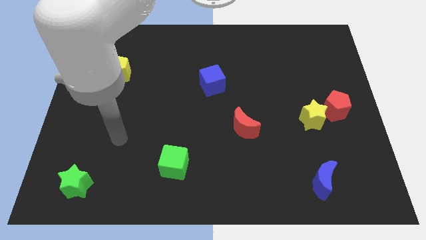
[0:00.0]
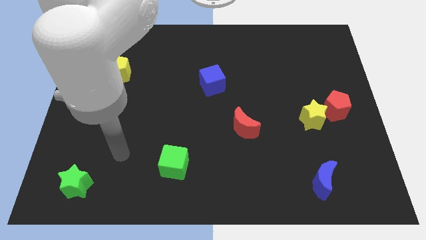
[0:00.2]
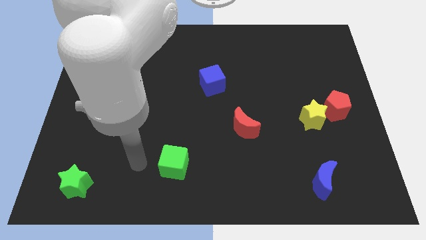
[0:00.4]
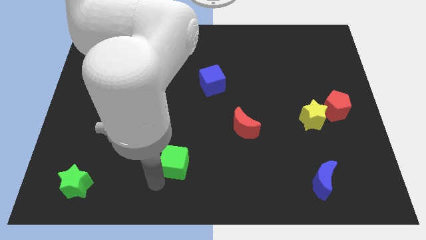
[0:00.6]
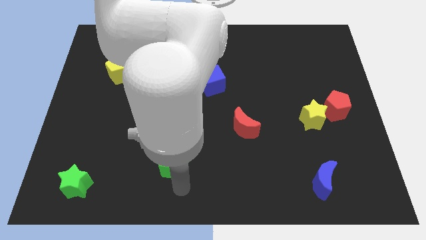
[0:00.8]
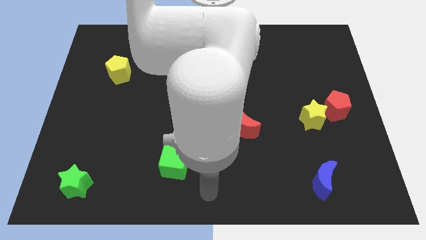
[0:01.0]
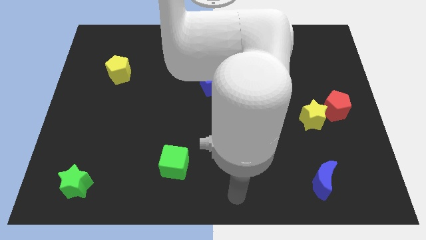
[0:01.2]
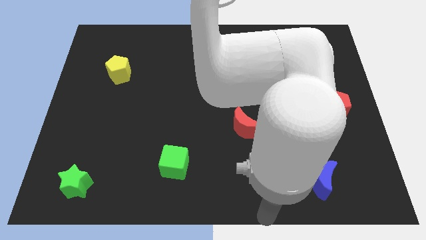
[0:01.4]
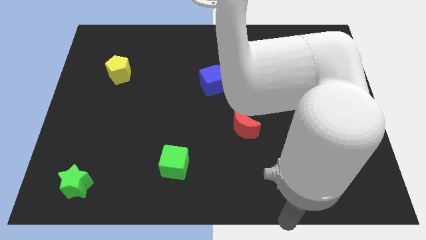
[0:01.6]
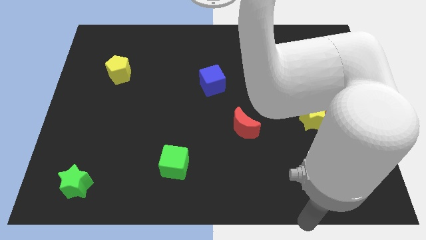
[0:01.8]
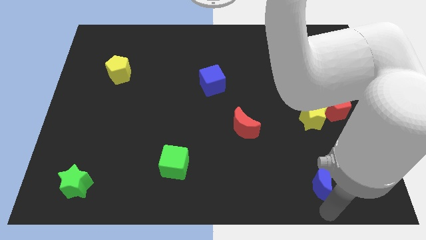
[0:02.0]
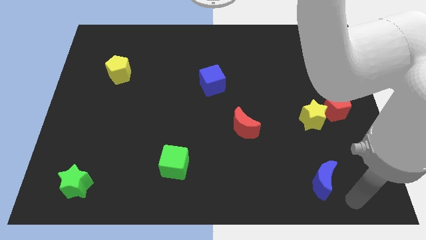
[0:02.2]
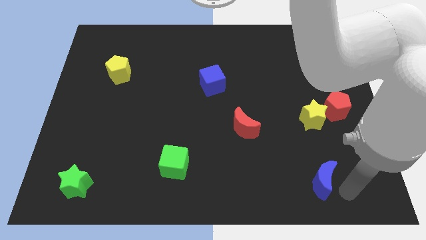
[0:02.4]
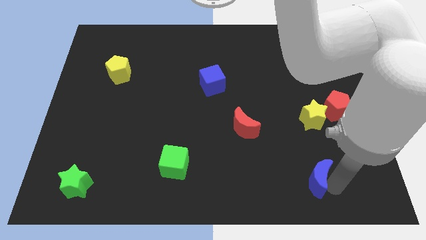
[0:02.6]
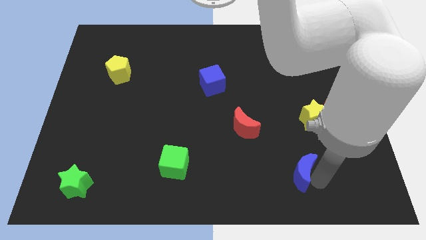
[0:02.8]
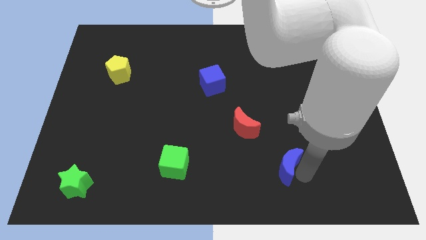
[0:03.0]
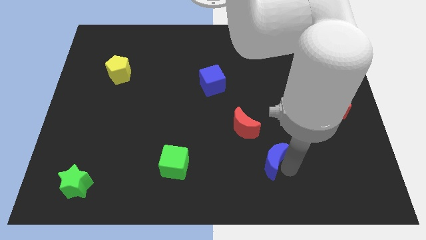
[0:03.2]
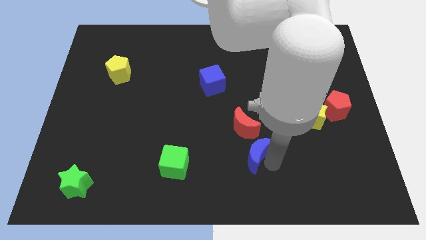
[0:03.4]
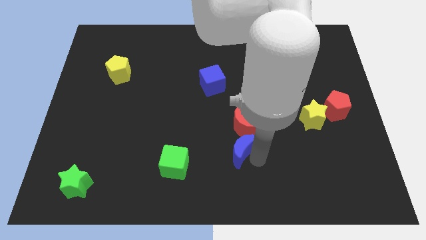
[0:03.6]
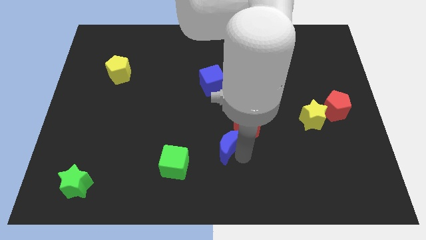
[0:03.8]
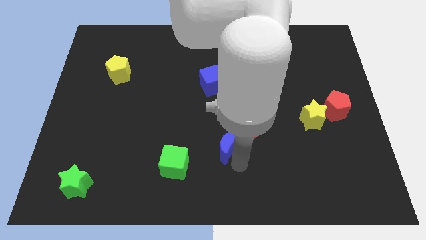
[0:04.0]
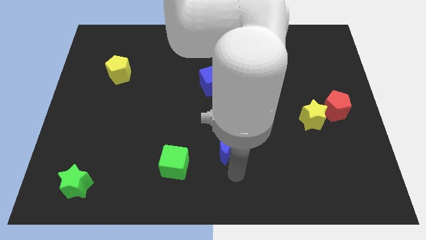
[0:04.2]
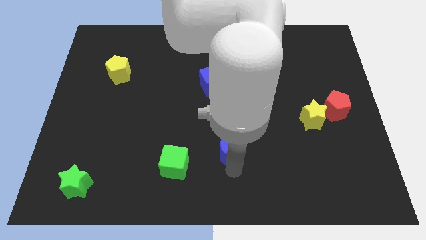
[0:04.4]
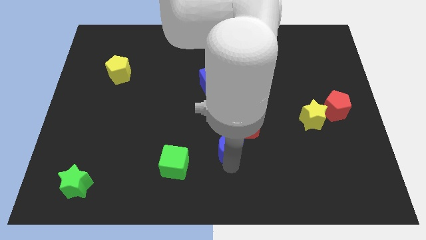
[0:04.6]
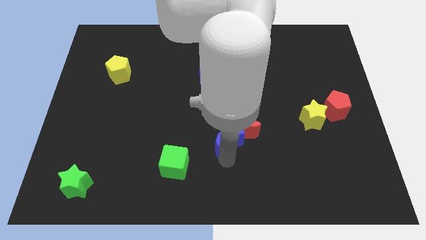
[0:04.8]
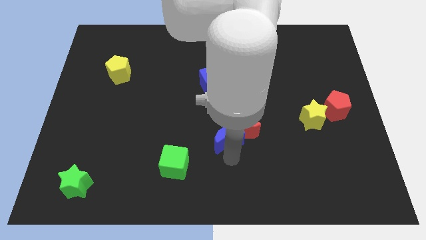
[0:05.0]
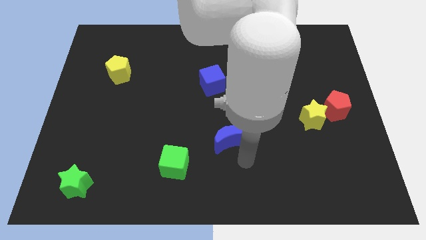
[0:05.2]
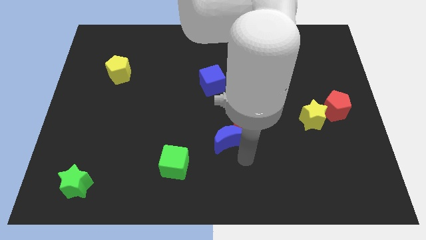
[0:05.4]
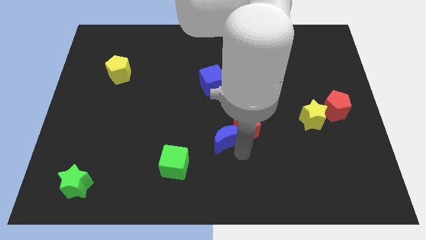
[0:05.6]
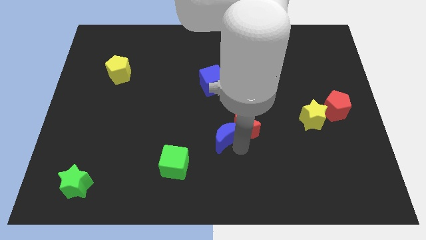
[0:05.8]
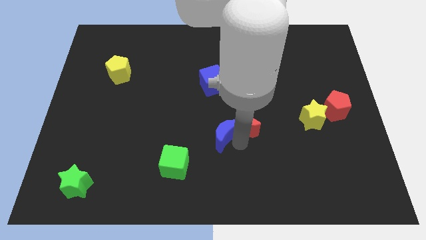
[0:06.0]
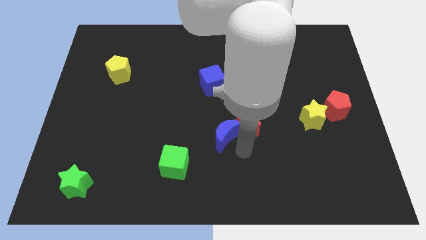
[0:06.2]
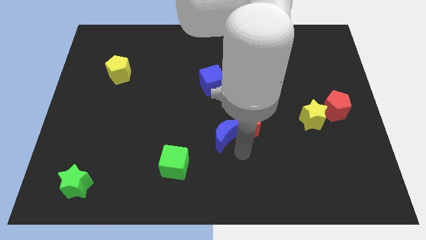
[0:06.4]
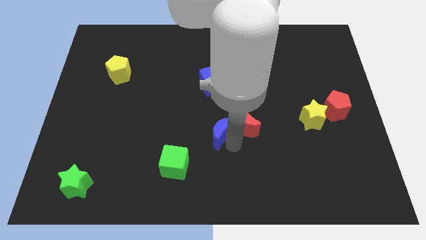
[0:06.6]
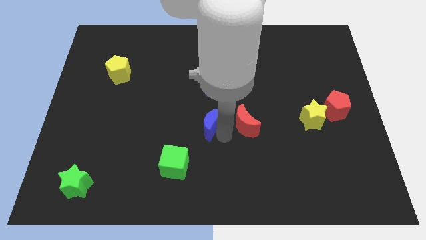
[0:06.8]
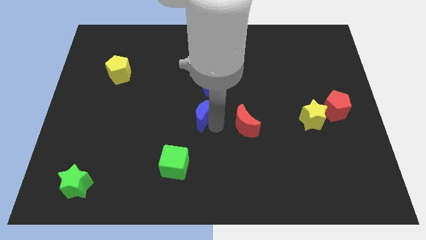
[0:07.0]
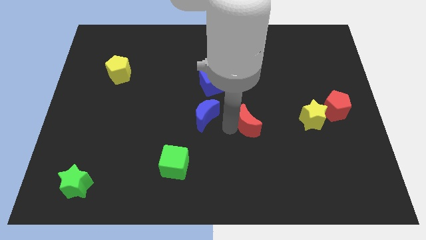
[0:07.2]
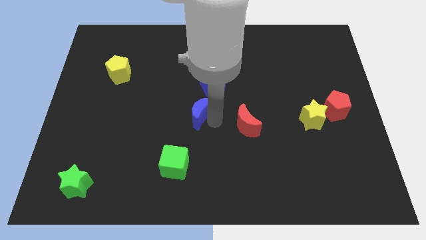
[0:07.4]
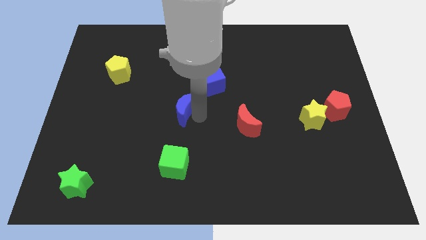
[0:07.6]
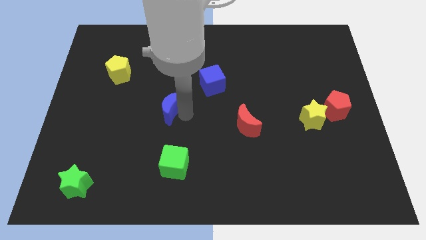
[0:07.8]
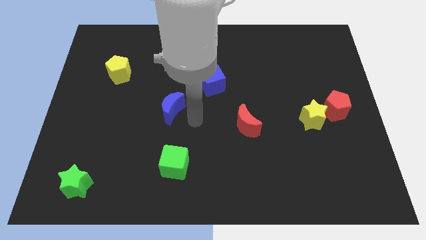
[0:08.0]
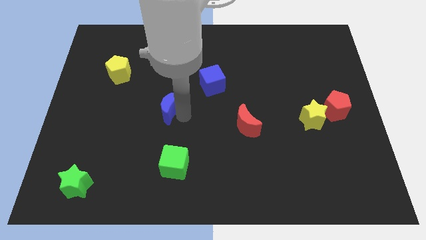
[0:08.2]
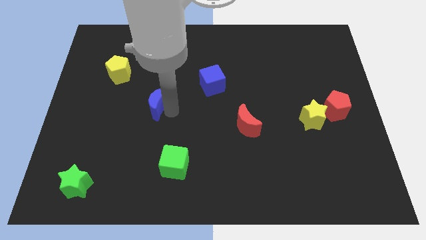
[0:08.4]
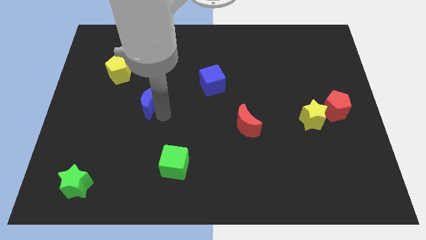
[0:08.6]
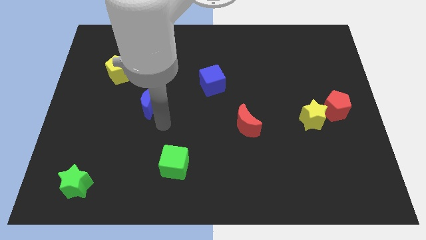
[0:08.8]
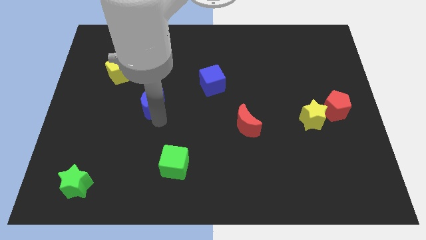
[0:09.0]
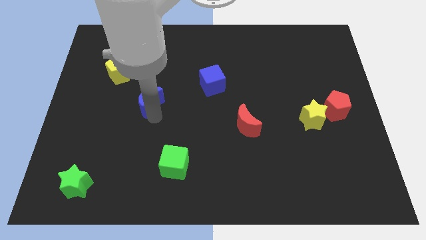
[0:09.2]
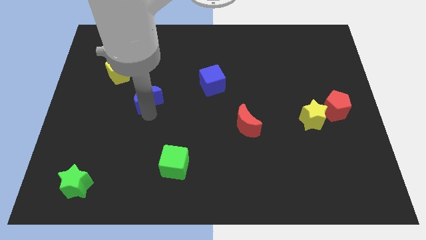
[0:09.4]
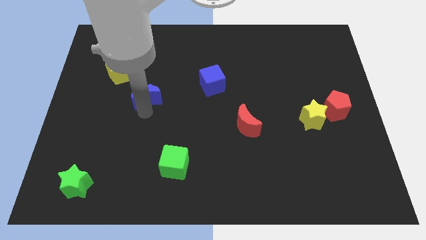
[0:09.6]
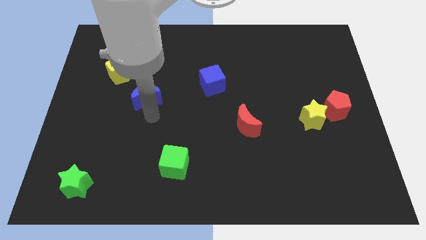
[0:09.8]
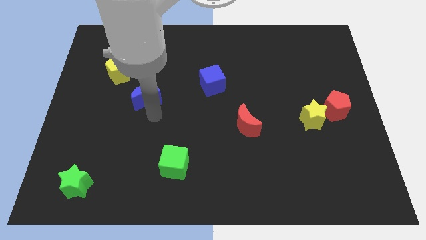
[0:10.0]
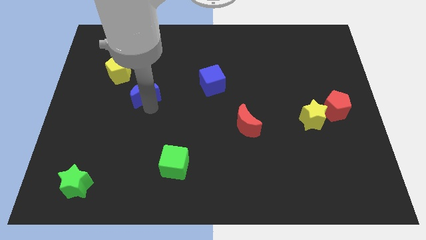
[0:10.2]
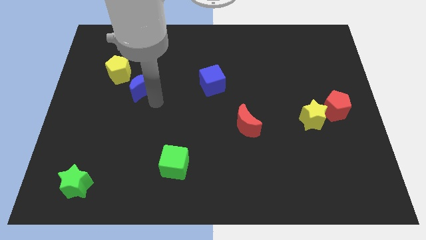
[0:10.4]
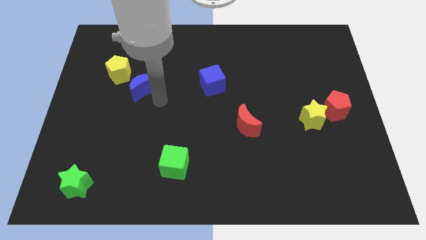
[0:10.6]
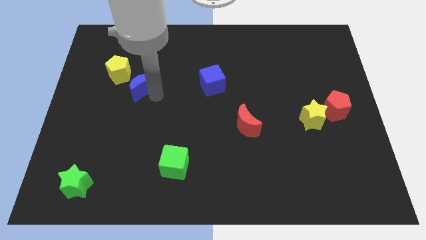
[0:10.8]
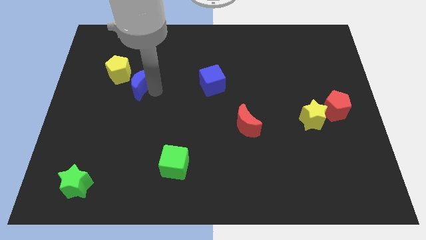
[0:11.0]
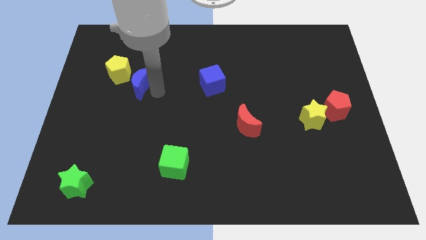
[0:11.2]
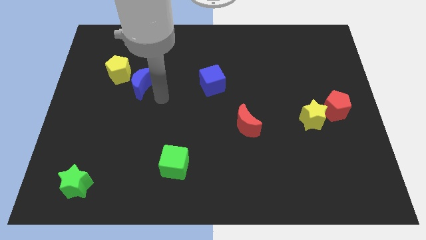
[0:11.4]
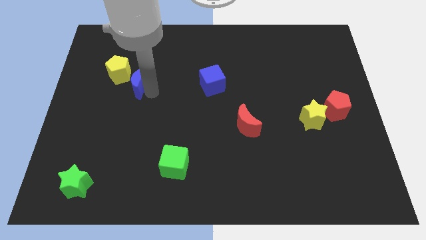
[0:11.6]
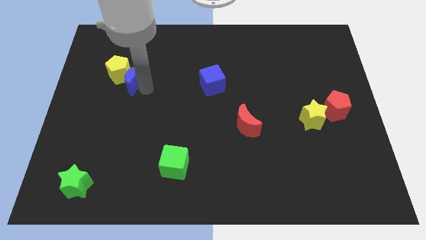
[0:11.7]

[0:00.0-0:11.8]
slide the blue moon to the yellow pentagon

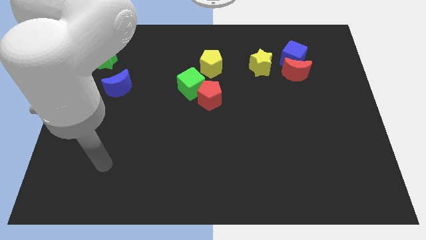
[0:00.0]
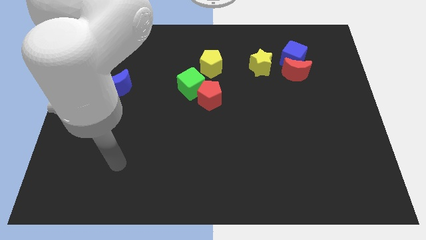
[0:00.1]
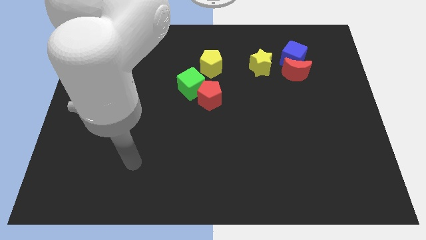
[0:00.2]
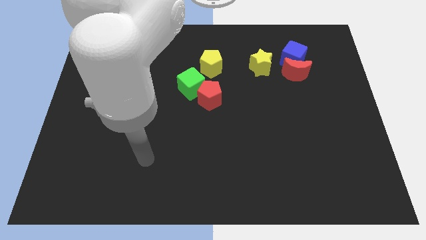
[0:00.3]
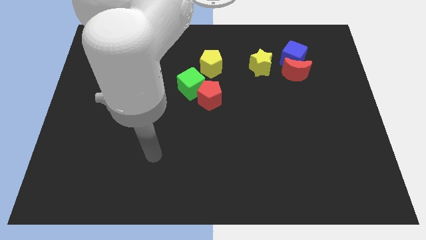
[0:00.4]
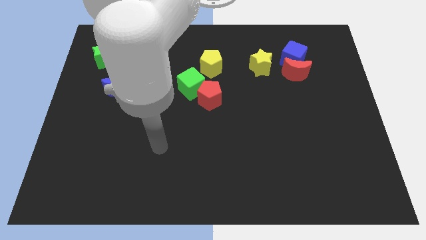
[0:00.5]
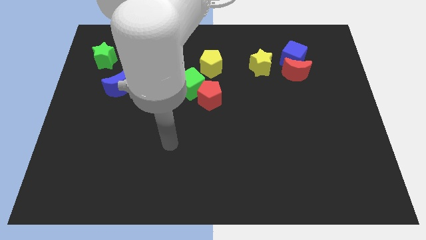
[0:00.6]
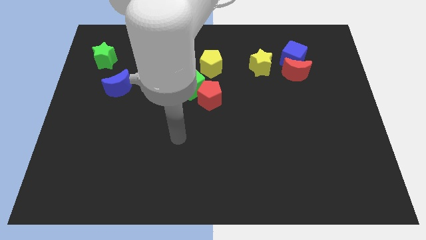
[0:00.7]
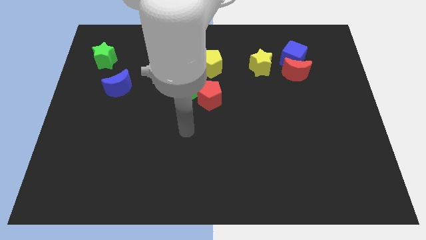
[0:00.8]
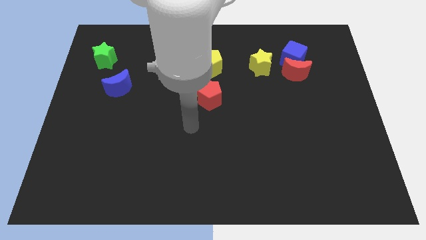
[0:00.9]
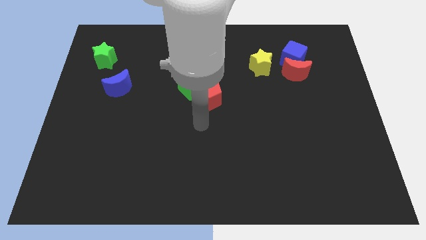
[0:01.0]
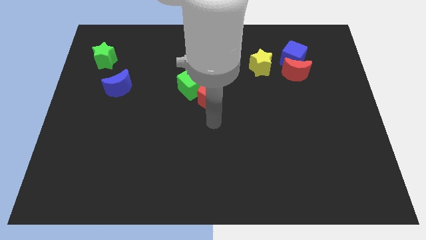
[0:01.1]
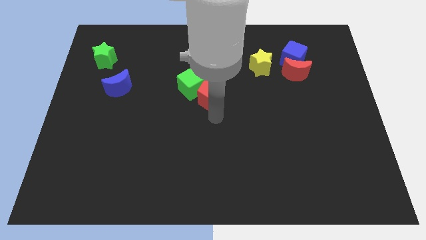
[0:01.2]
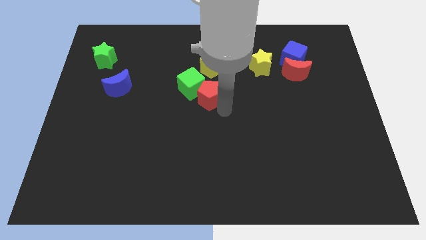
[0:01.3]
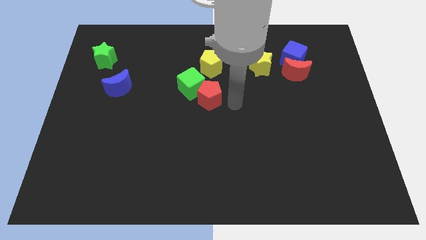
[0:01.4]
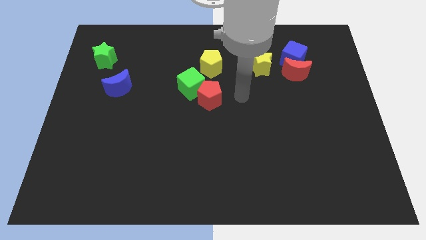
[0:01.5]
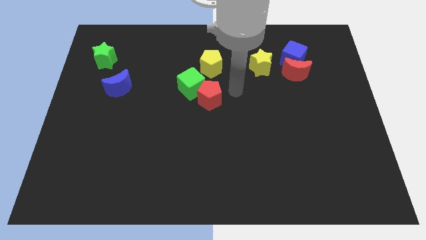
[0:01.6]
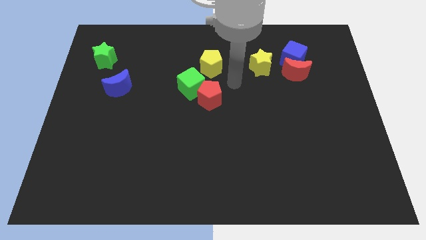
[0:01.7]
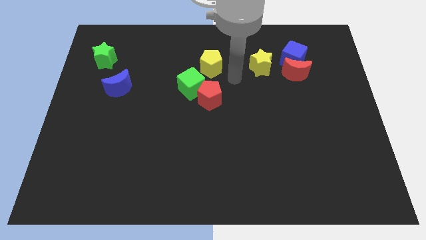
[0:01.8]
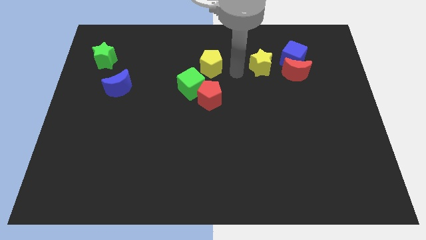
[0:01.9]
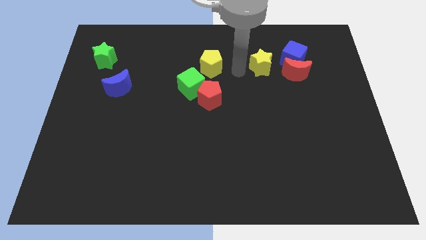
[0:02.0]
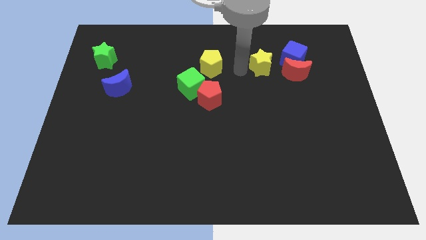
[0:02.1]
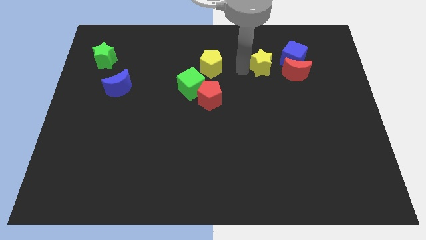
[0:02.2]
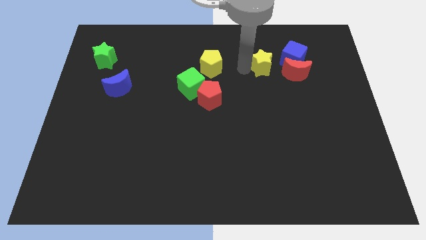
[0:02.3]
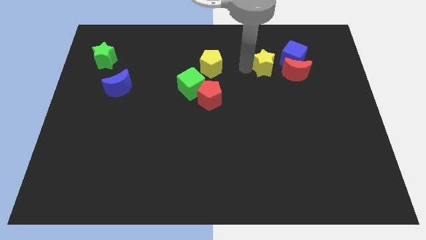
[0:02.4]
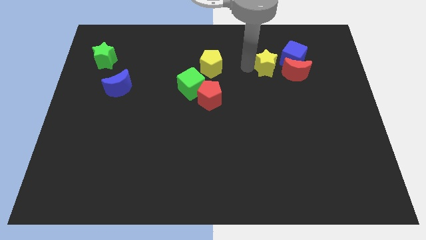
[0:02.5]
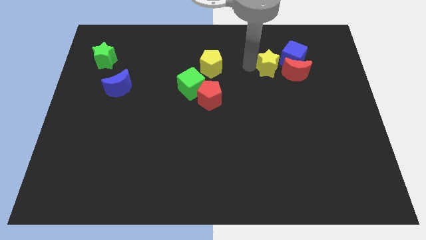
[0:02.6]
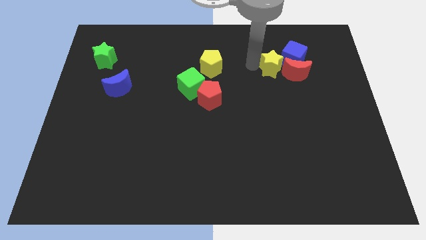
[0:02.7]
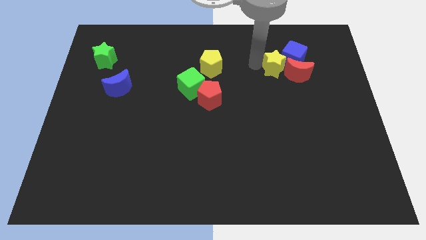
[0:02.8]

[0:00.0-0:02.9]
put the yellow star close to the blue cube

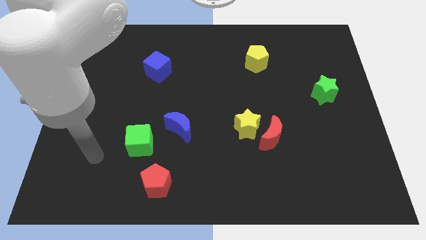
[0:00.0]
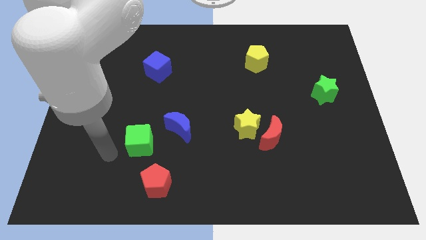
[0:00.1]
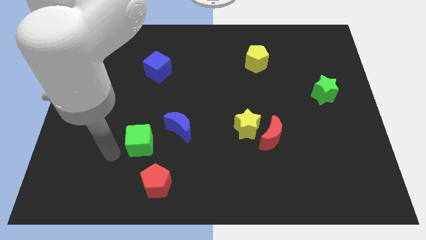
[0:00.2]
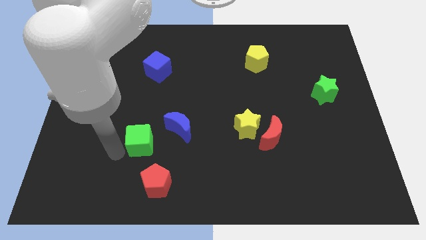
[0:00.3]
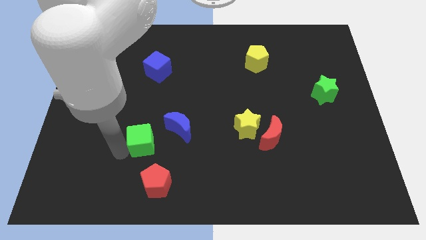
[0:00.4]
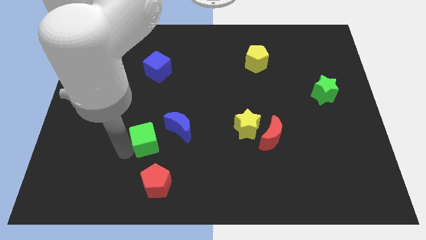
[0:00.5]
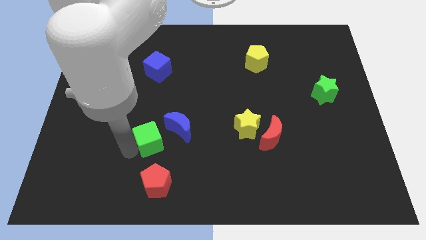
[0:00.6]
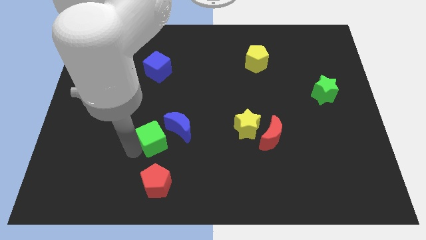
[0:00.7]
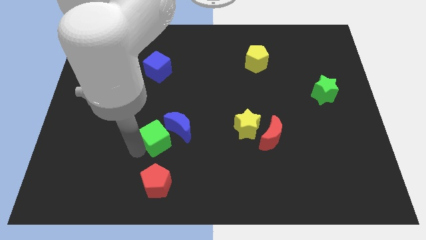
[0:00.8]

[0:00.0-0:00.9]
move the green cube close to the blue moon
